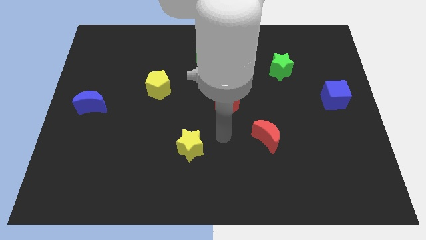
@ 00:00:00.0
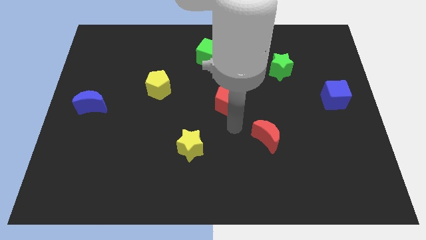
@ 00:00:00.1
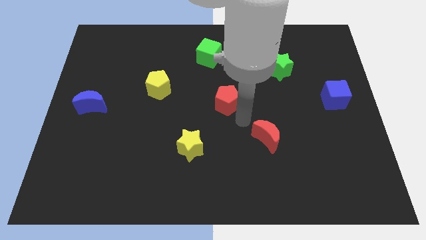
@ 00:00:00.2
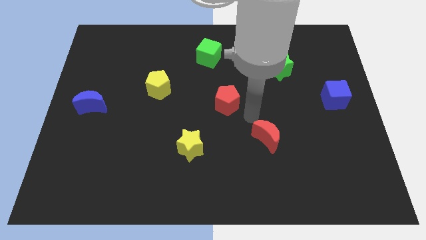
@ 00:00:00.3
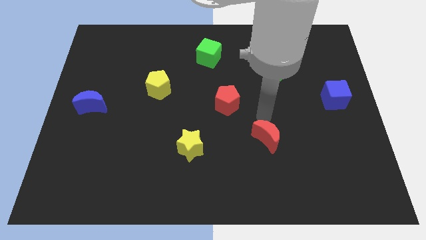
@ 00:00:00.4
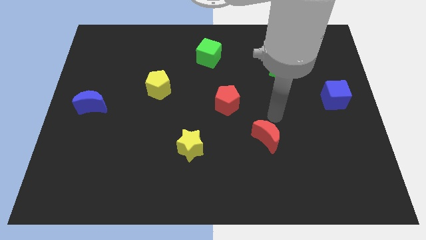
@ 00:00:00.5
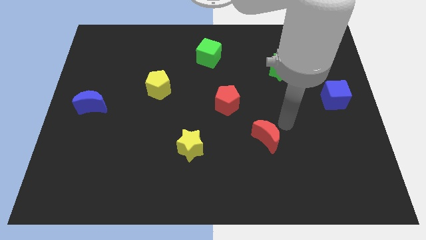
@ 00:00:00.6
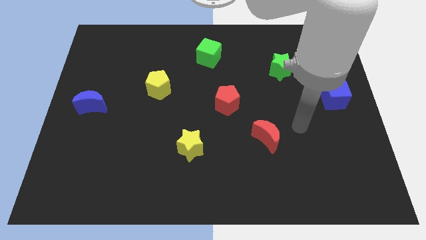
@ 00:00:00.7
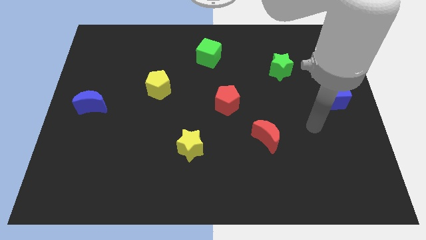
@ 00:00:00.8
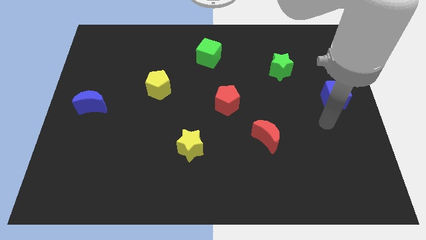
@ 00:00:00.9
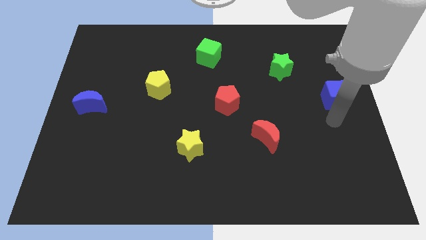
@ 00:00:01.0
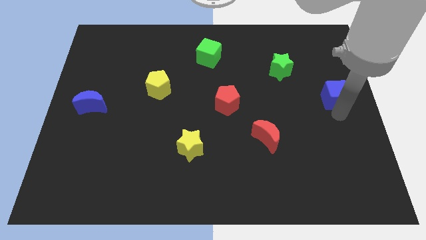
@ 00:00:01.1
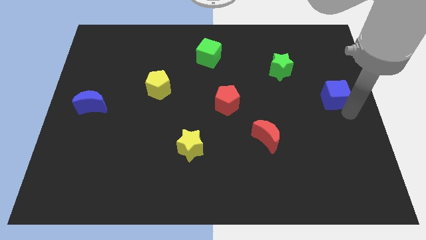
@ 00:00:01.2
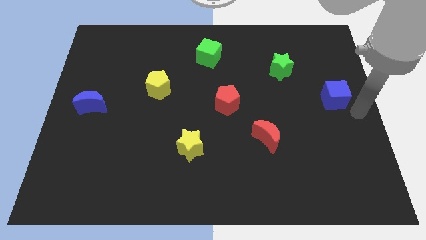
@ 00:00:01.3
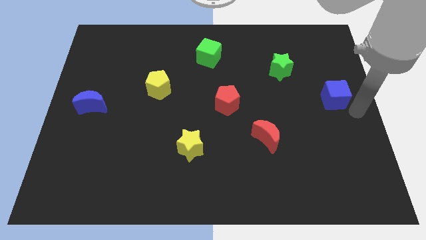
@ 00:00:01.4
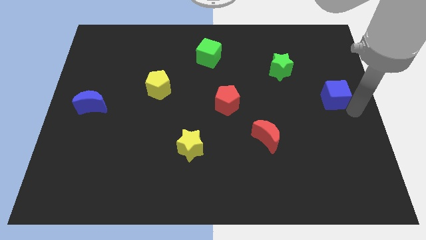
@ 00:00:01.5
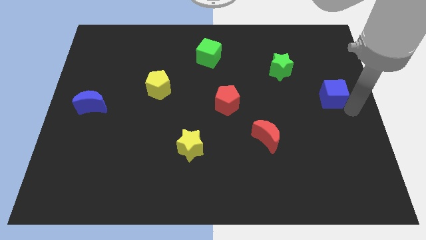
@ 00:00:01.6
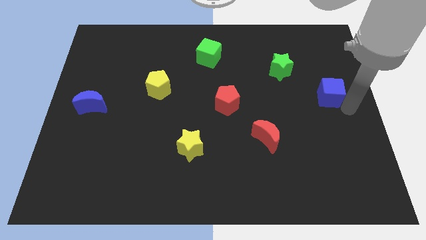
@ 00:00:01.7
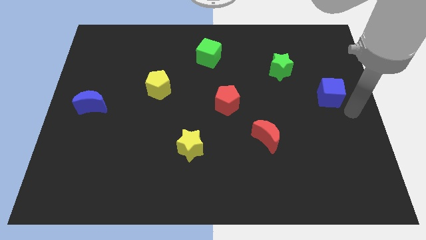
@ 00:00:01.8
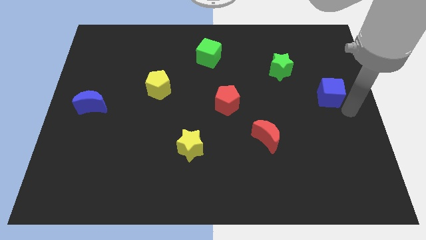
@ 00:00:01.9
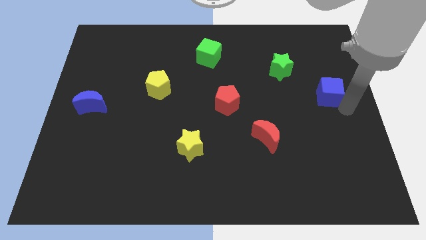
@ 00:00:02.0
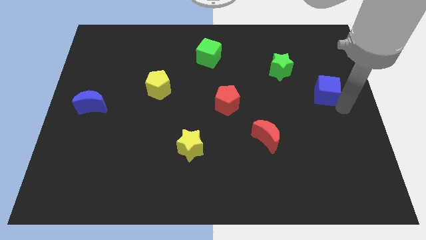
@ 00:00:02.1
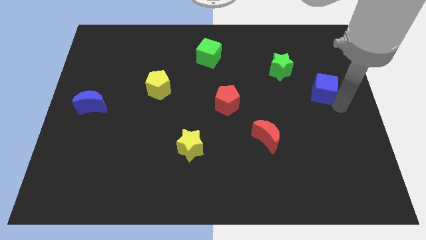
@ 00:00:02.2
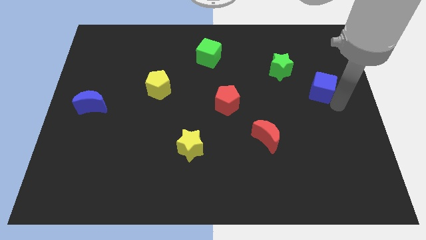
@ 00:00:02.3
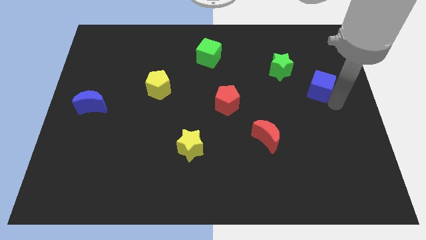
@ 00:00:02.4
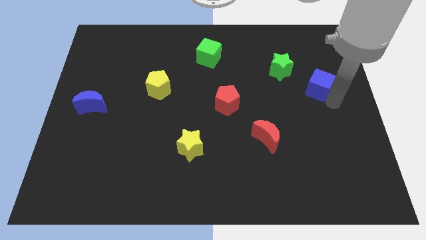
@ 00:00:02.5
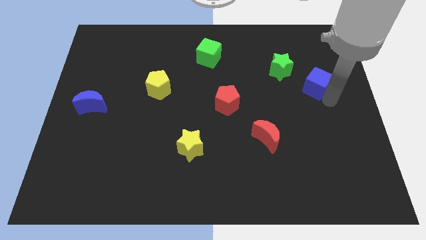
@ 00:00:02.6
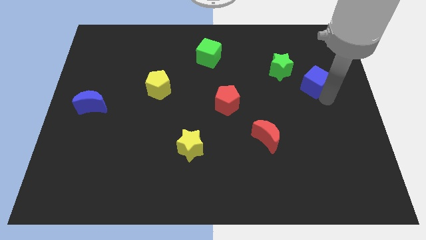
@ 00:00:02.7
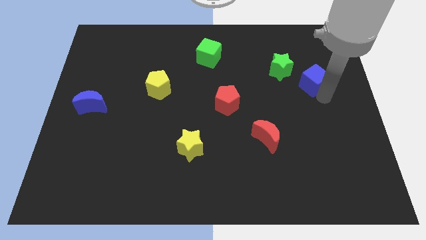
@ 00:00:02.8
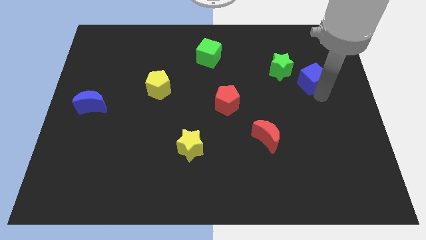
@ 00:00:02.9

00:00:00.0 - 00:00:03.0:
slide the blue cube a little bit upwards and left diagonally

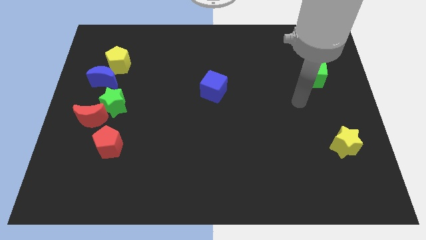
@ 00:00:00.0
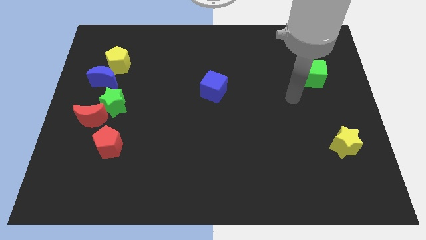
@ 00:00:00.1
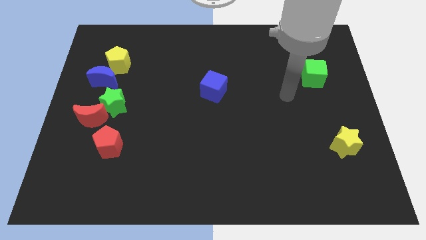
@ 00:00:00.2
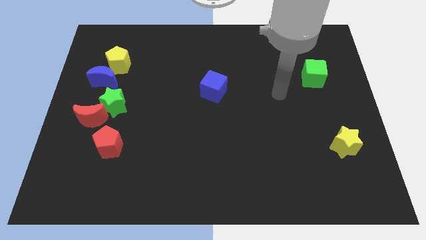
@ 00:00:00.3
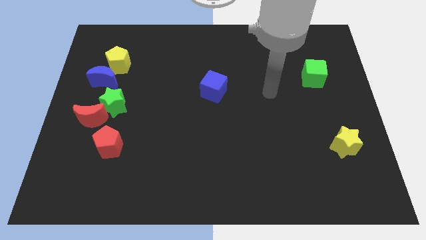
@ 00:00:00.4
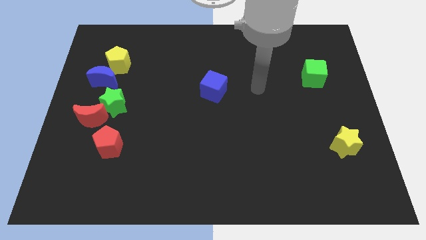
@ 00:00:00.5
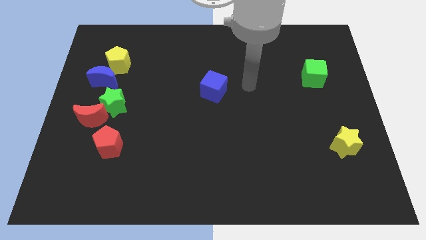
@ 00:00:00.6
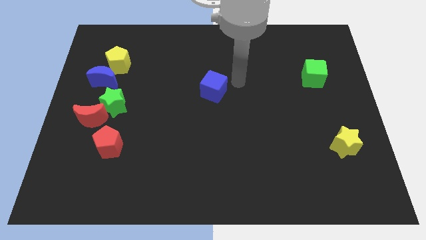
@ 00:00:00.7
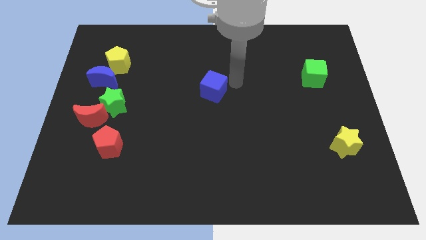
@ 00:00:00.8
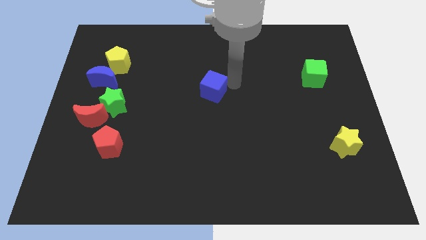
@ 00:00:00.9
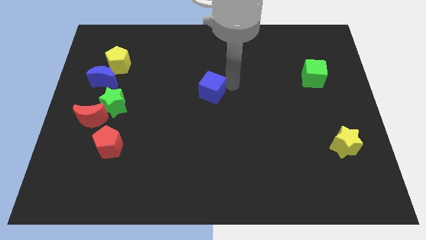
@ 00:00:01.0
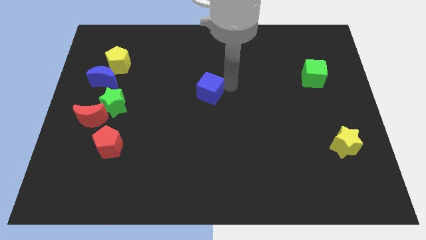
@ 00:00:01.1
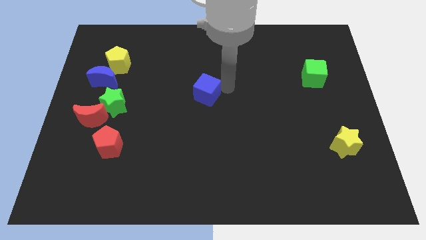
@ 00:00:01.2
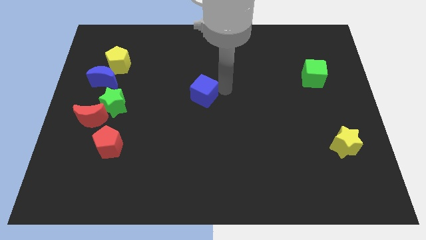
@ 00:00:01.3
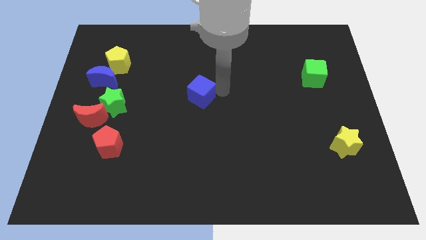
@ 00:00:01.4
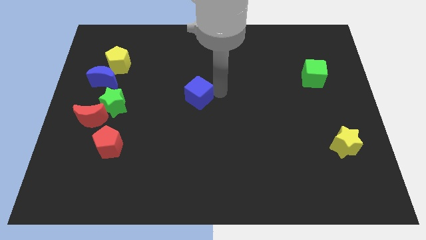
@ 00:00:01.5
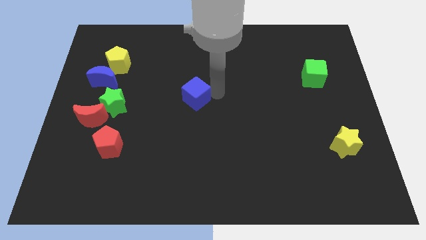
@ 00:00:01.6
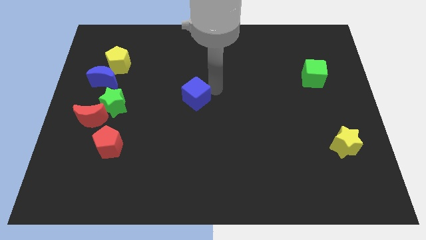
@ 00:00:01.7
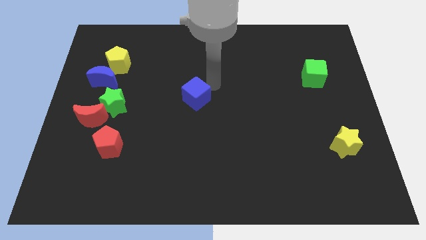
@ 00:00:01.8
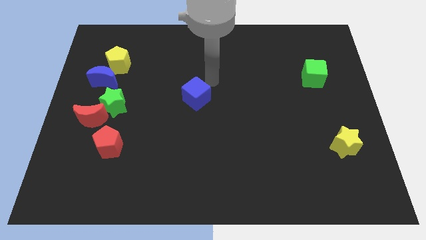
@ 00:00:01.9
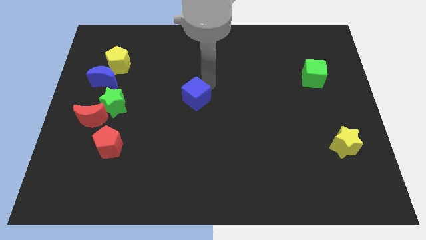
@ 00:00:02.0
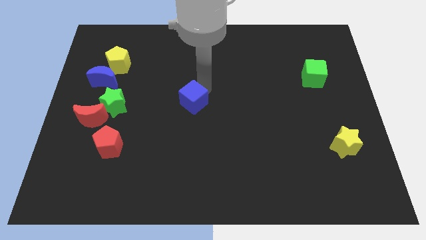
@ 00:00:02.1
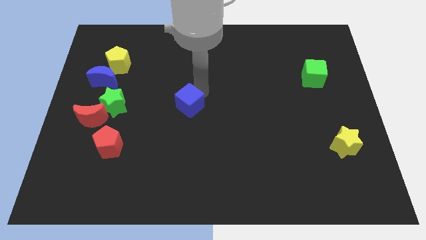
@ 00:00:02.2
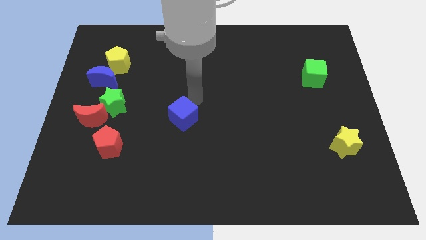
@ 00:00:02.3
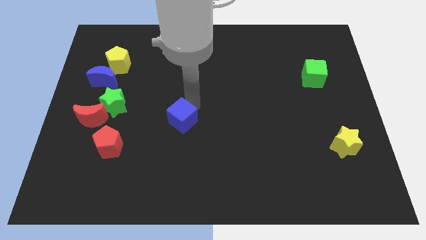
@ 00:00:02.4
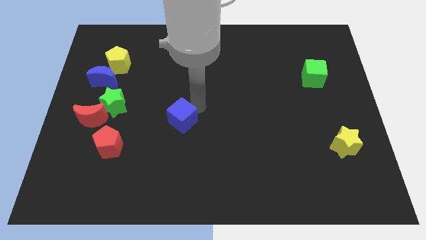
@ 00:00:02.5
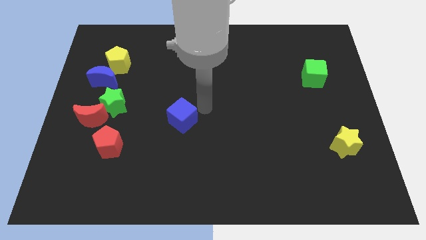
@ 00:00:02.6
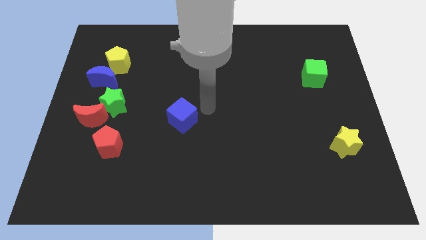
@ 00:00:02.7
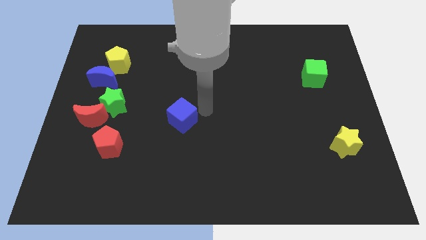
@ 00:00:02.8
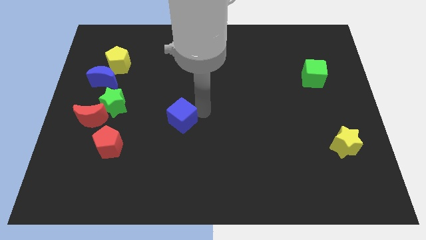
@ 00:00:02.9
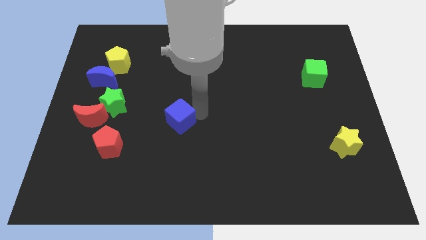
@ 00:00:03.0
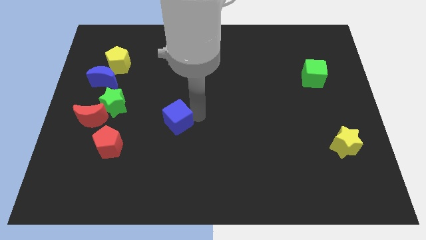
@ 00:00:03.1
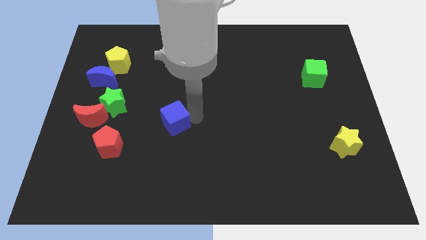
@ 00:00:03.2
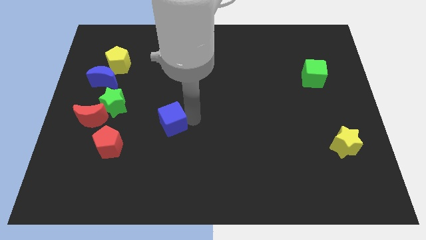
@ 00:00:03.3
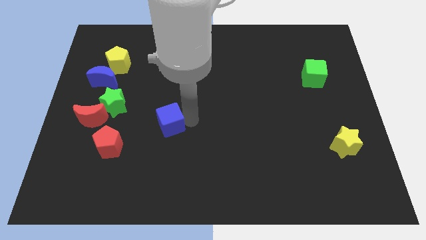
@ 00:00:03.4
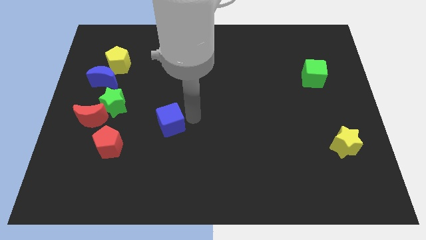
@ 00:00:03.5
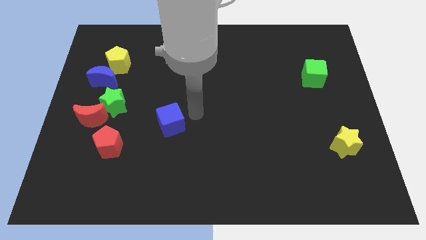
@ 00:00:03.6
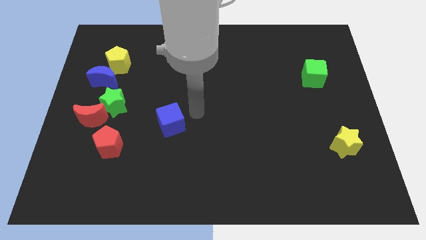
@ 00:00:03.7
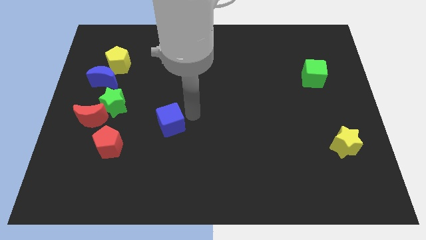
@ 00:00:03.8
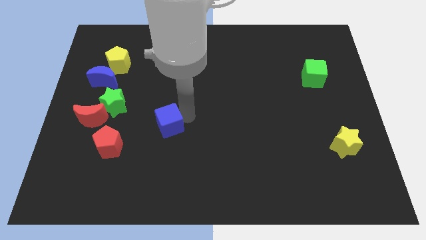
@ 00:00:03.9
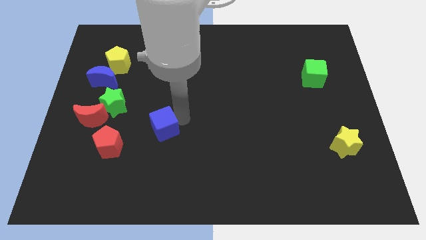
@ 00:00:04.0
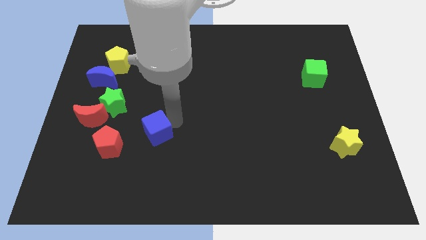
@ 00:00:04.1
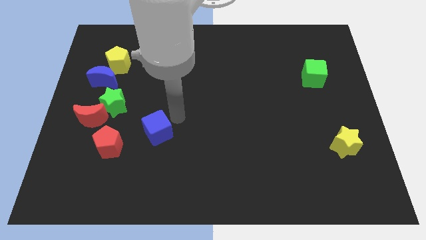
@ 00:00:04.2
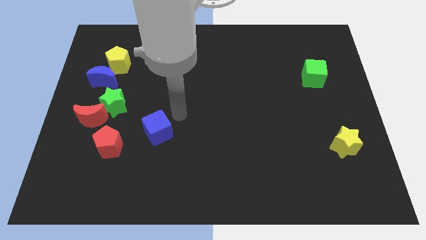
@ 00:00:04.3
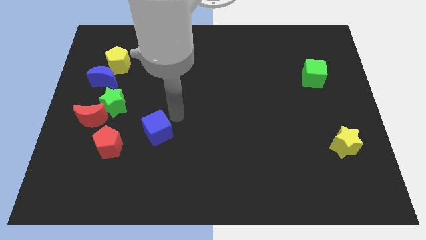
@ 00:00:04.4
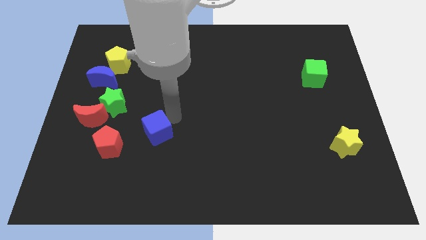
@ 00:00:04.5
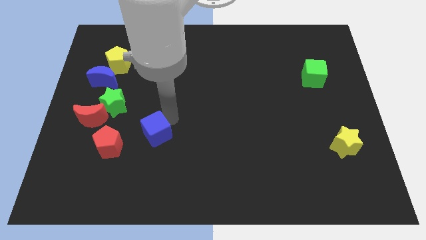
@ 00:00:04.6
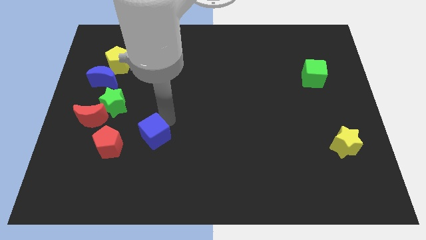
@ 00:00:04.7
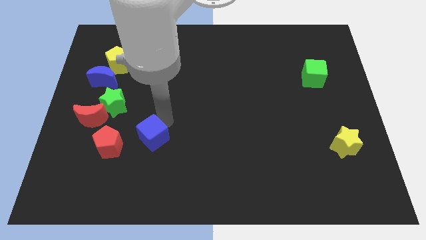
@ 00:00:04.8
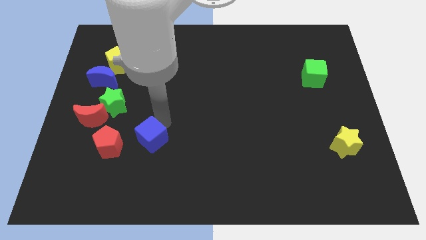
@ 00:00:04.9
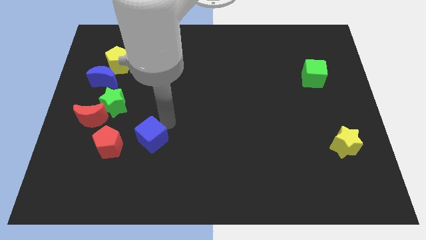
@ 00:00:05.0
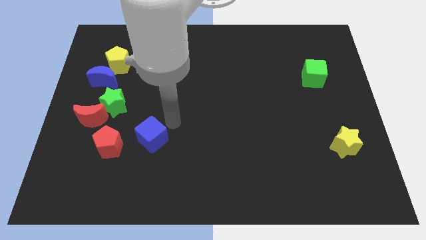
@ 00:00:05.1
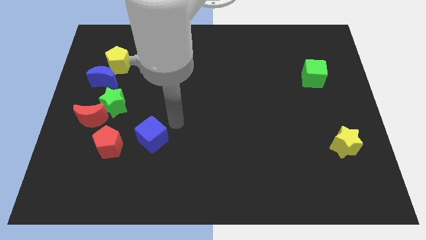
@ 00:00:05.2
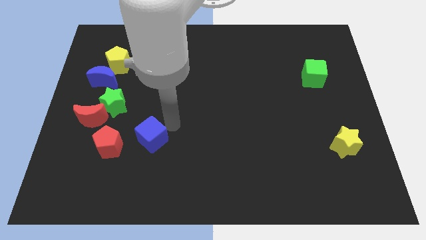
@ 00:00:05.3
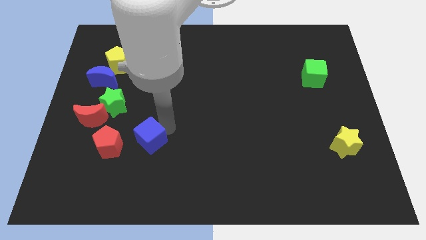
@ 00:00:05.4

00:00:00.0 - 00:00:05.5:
push the blue cube down and to the left diagonally
